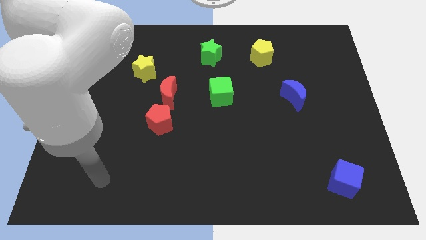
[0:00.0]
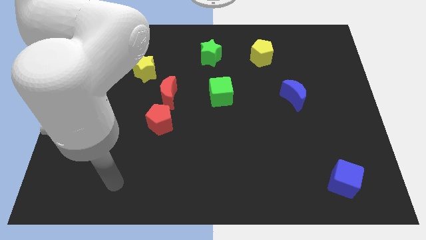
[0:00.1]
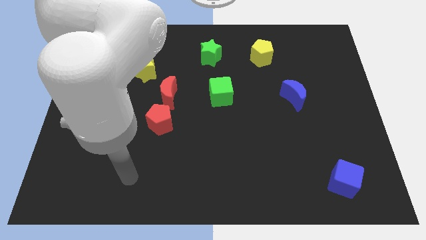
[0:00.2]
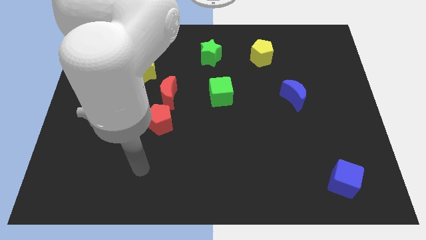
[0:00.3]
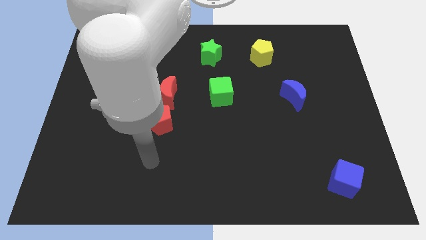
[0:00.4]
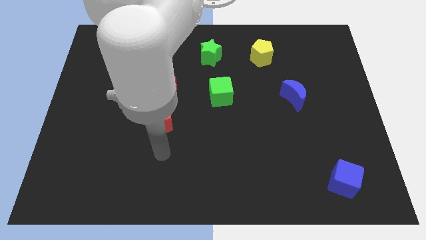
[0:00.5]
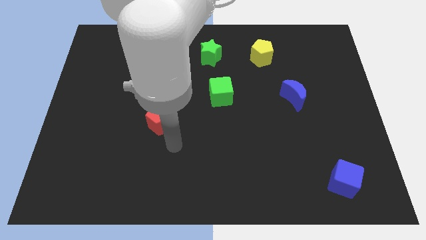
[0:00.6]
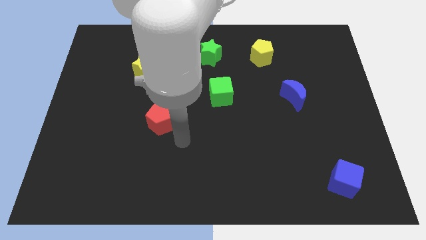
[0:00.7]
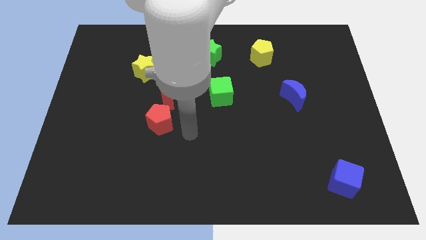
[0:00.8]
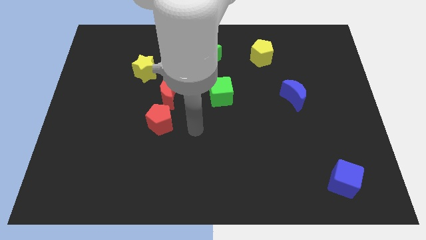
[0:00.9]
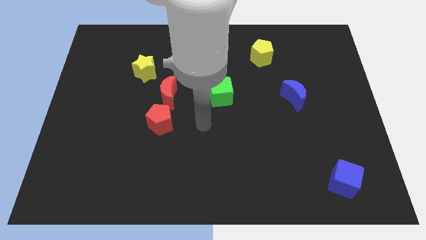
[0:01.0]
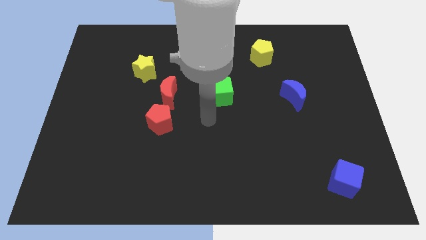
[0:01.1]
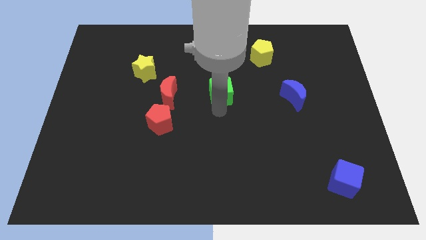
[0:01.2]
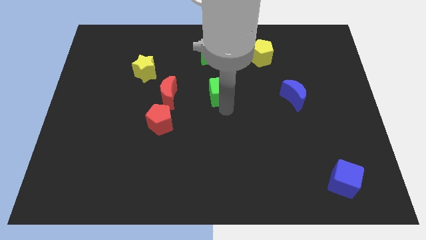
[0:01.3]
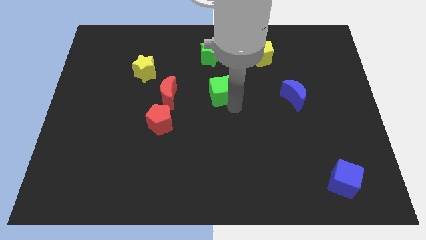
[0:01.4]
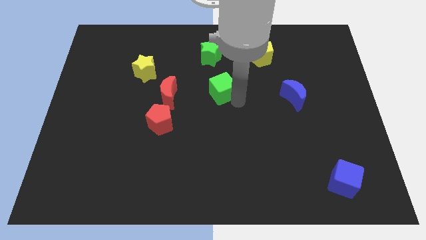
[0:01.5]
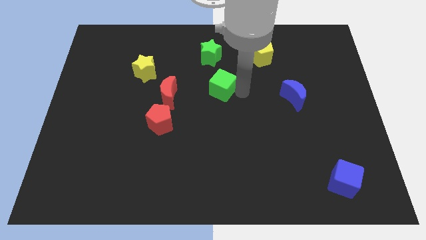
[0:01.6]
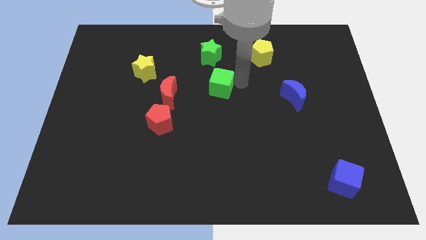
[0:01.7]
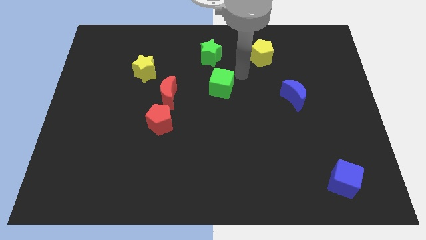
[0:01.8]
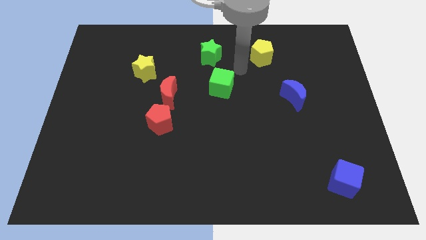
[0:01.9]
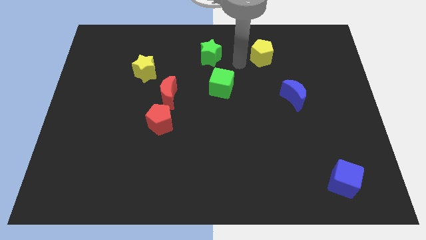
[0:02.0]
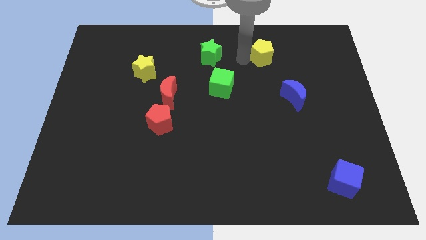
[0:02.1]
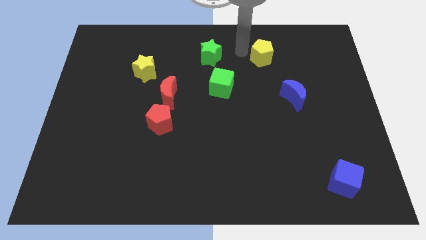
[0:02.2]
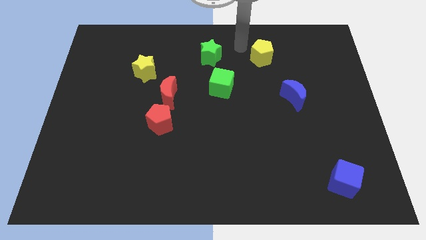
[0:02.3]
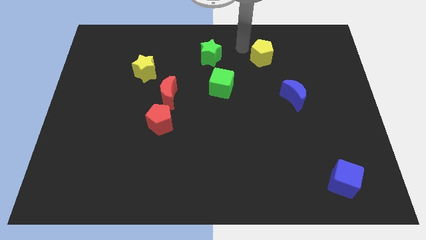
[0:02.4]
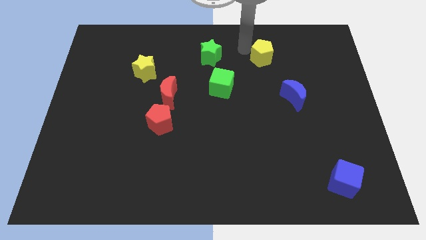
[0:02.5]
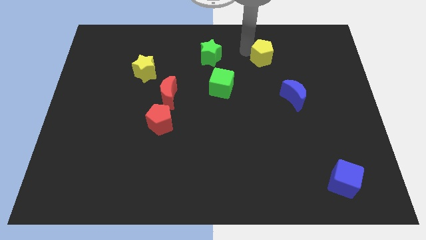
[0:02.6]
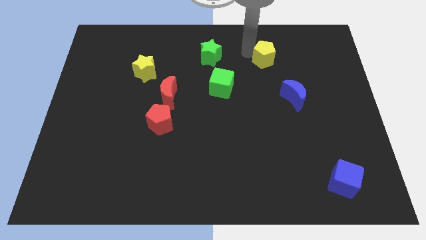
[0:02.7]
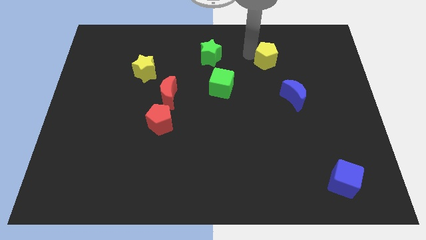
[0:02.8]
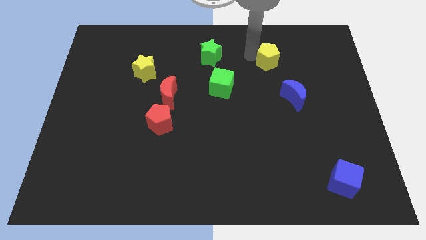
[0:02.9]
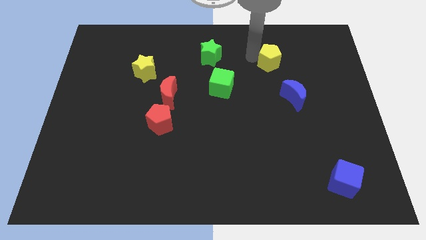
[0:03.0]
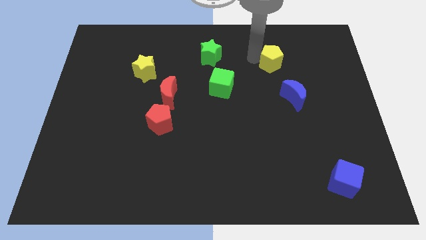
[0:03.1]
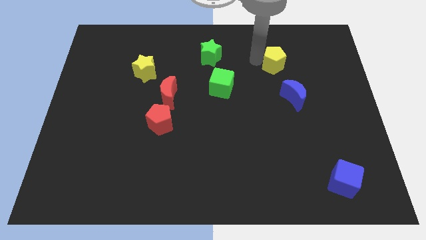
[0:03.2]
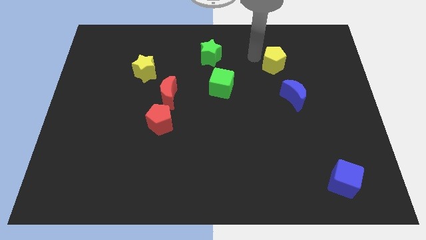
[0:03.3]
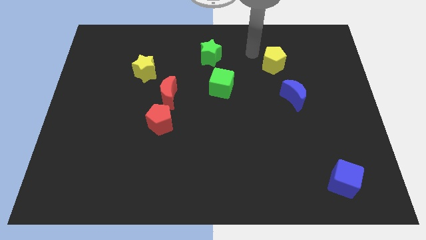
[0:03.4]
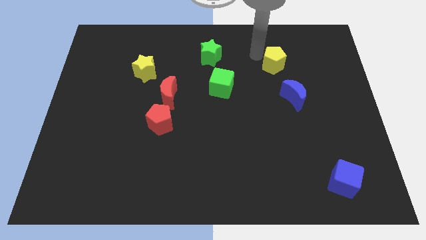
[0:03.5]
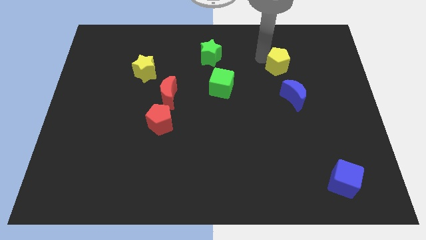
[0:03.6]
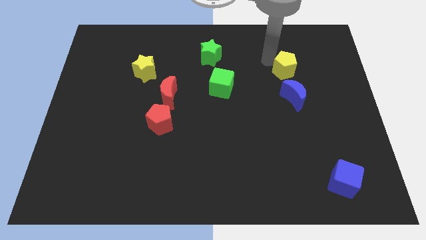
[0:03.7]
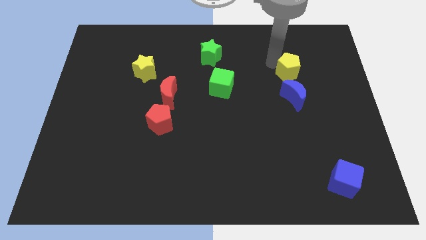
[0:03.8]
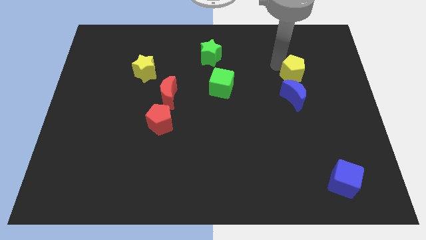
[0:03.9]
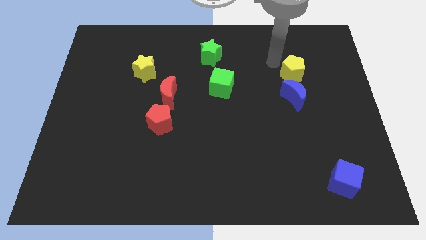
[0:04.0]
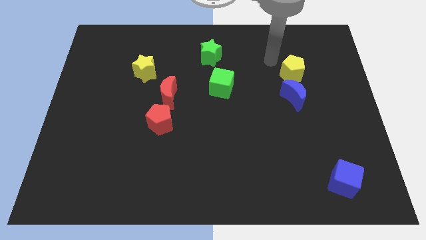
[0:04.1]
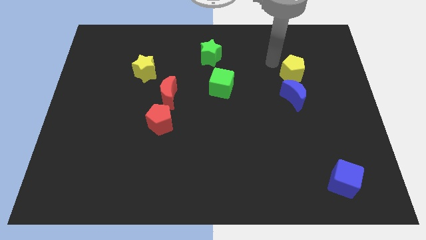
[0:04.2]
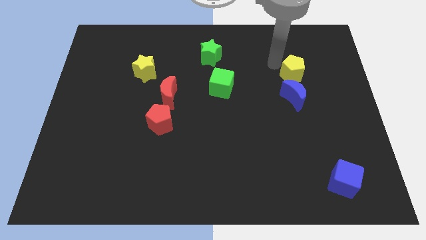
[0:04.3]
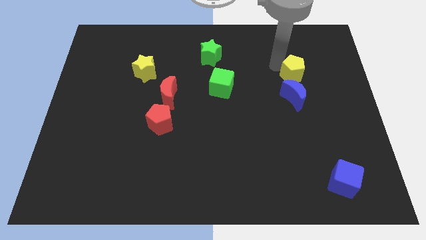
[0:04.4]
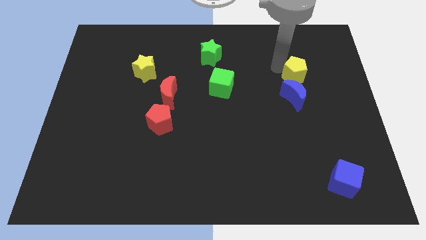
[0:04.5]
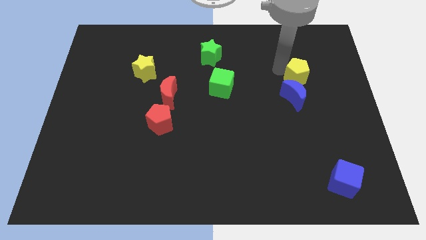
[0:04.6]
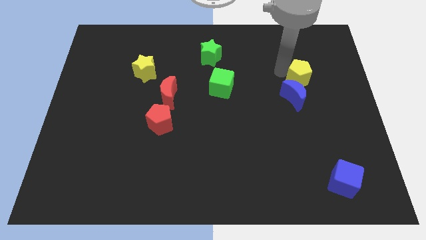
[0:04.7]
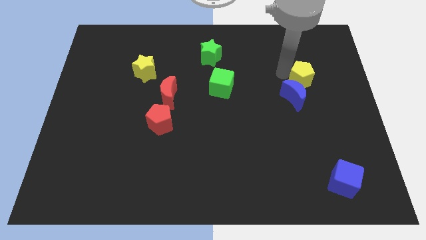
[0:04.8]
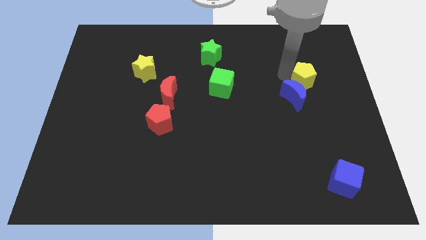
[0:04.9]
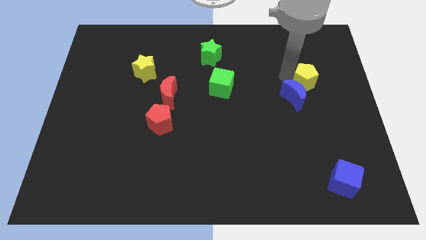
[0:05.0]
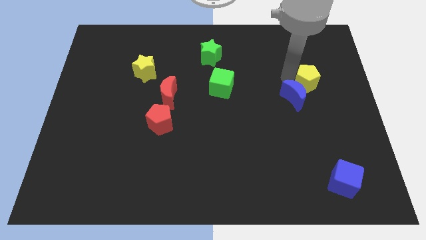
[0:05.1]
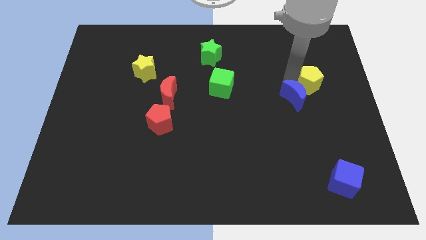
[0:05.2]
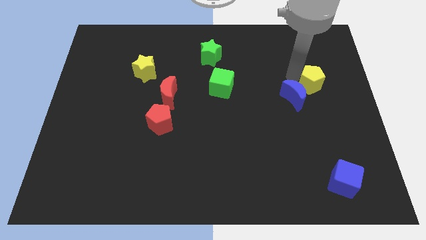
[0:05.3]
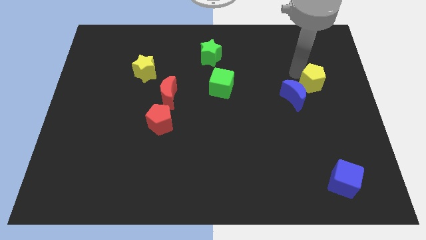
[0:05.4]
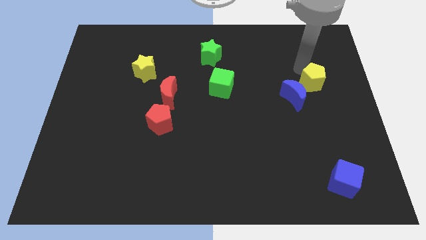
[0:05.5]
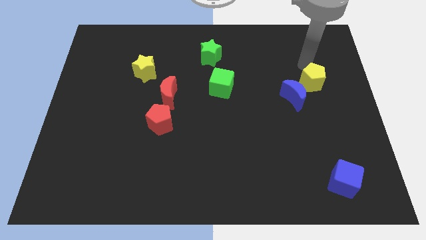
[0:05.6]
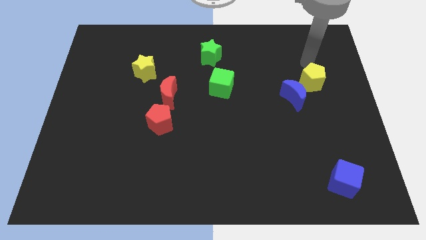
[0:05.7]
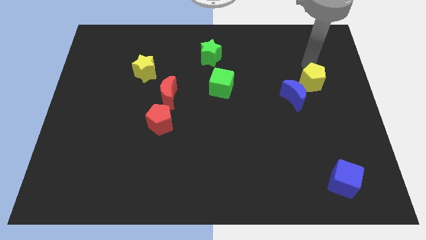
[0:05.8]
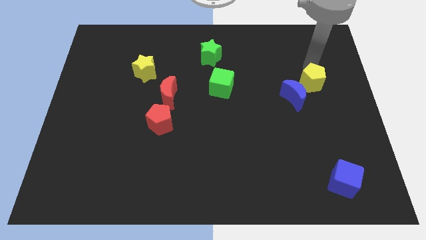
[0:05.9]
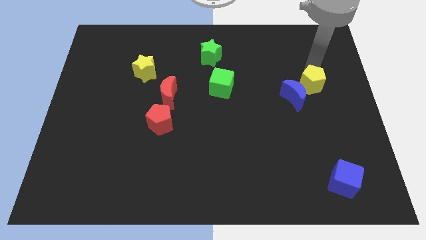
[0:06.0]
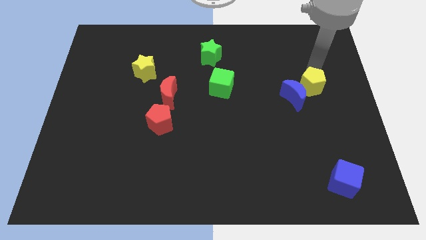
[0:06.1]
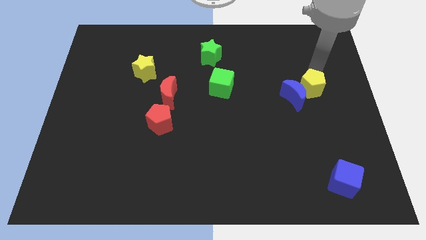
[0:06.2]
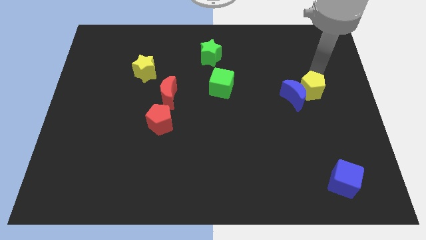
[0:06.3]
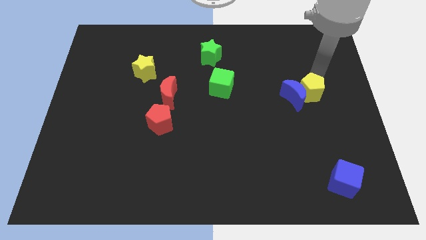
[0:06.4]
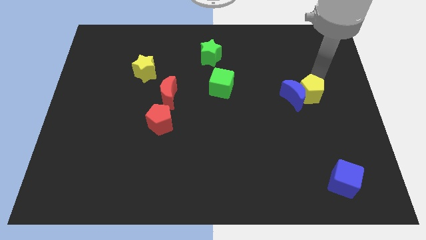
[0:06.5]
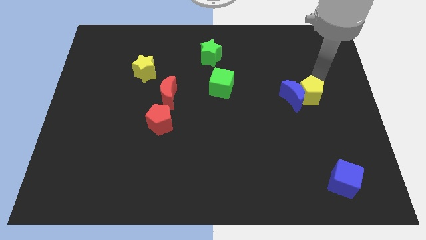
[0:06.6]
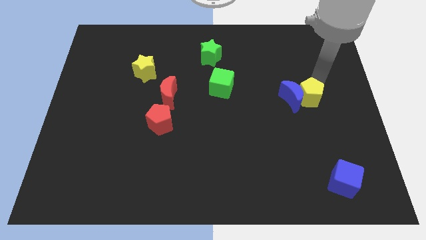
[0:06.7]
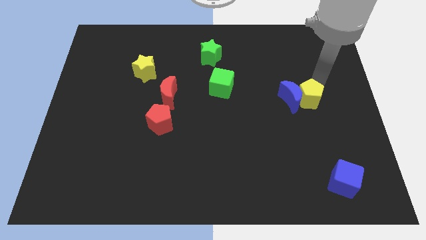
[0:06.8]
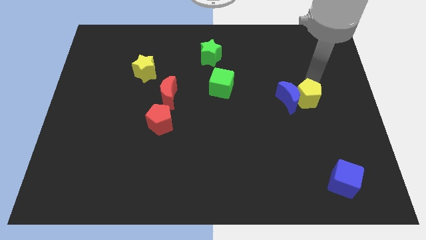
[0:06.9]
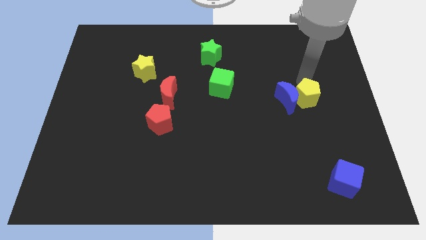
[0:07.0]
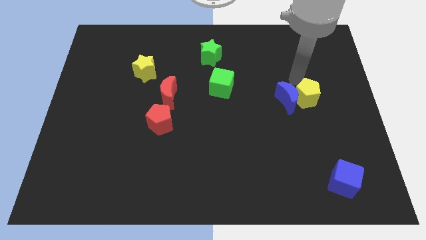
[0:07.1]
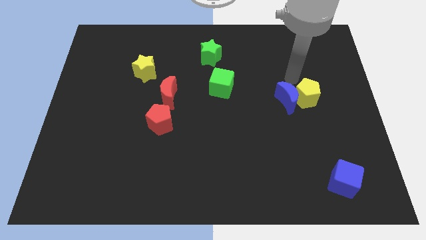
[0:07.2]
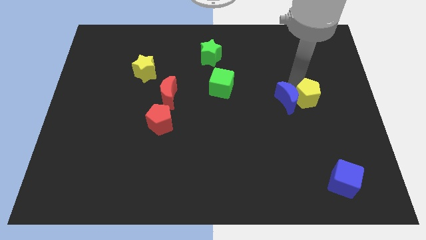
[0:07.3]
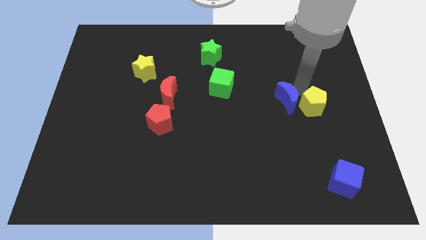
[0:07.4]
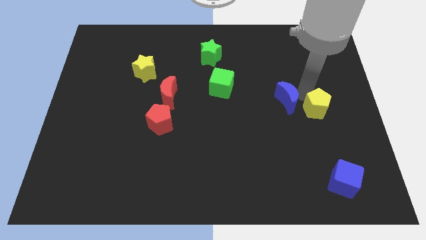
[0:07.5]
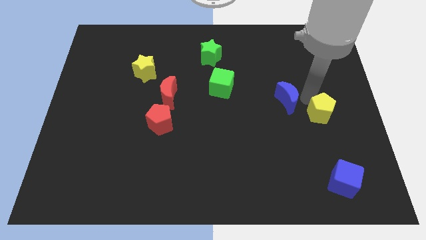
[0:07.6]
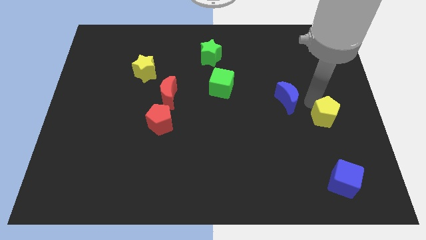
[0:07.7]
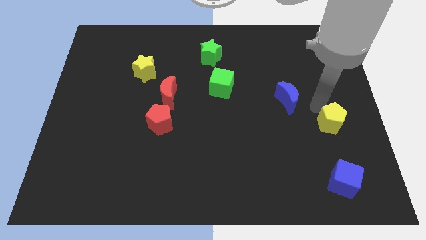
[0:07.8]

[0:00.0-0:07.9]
slide the yellow pentagon to the top of the blue cube
